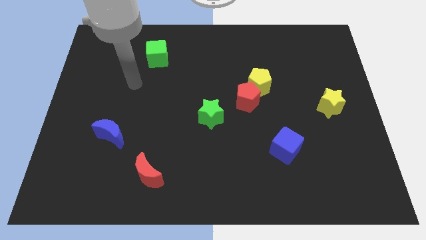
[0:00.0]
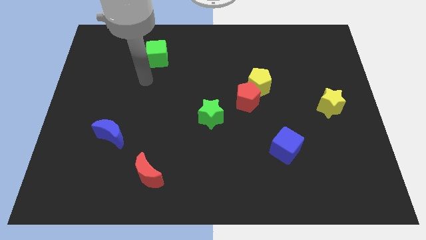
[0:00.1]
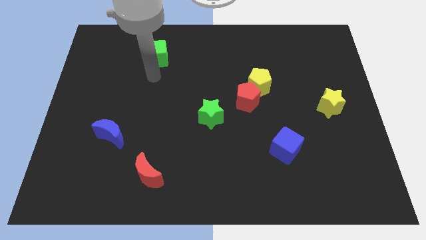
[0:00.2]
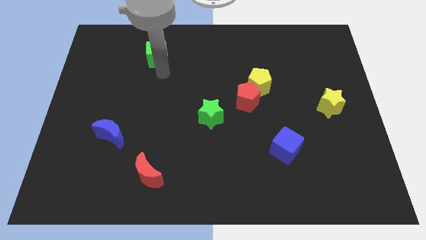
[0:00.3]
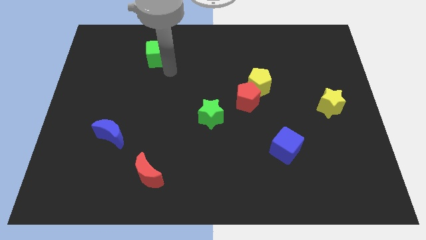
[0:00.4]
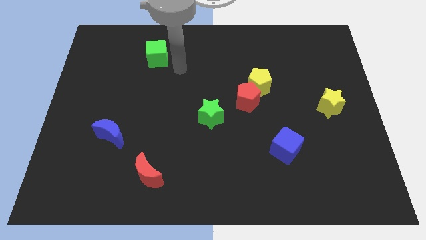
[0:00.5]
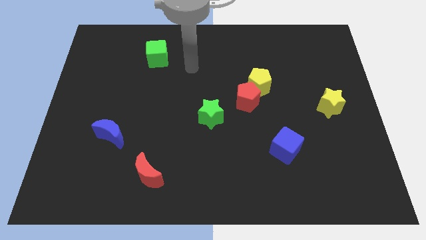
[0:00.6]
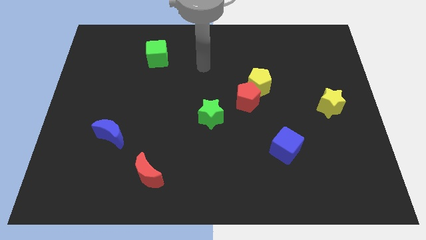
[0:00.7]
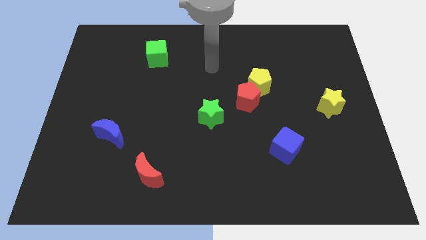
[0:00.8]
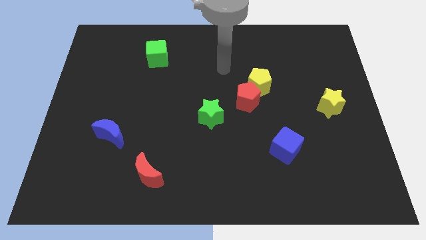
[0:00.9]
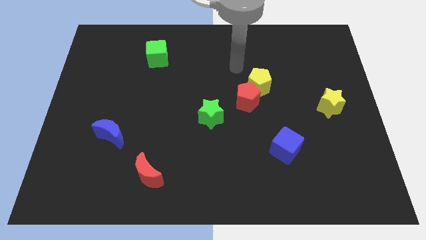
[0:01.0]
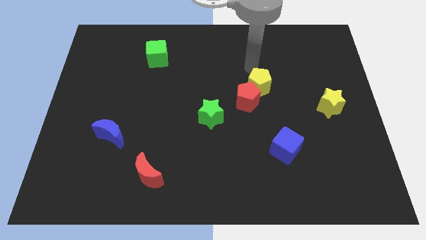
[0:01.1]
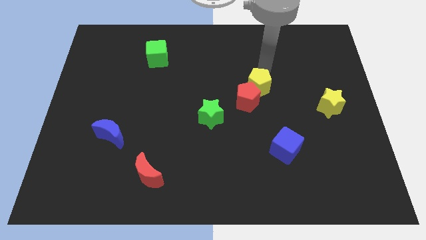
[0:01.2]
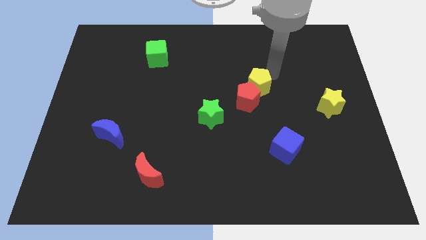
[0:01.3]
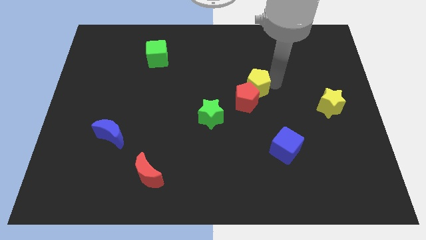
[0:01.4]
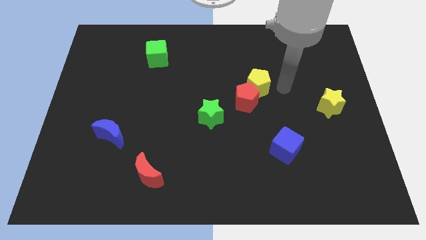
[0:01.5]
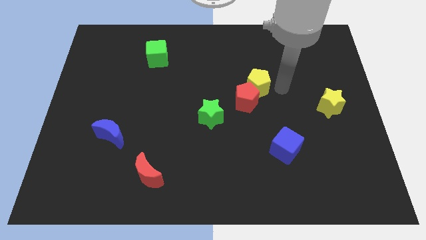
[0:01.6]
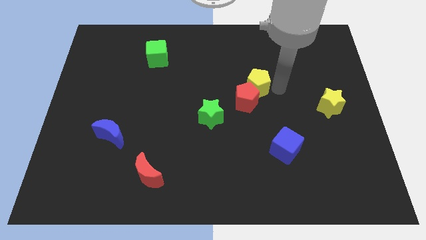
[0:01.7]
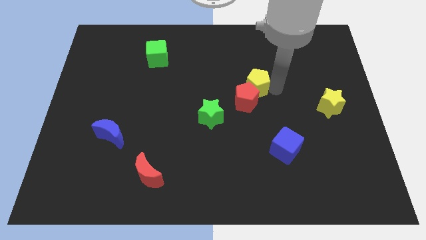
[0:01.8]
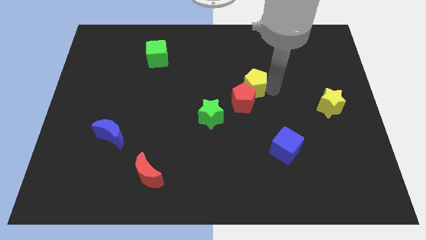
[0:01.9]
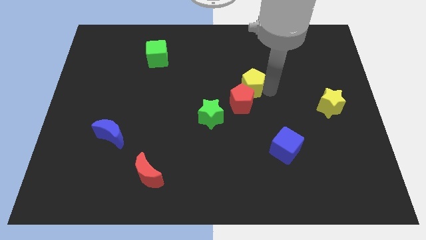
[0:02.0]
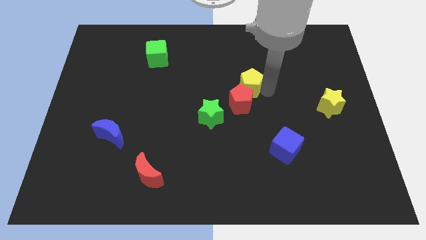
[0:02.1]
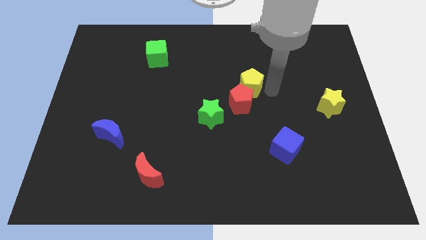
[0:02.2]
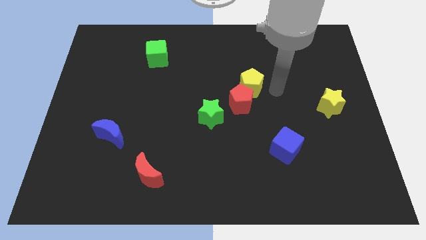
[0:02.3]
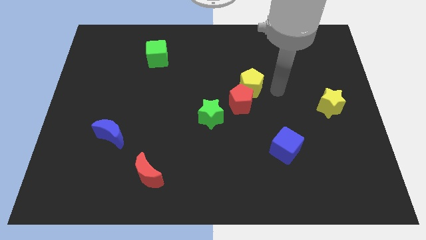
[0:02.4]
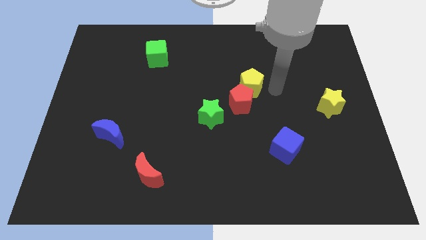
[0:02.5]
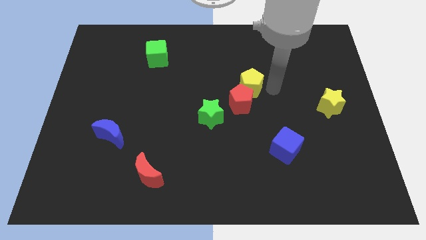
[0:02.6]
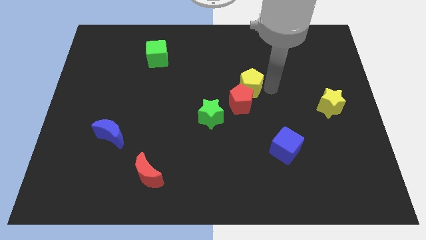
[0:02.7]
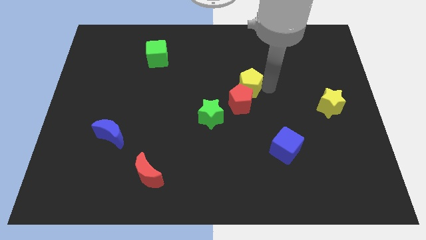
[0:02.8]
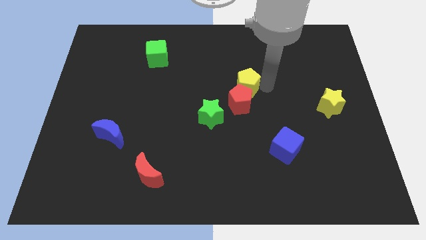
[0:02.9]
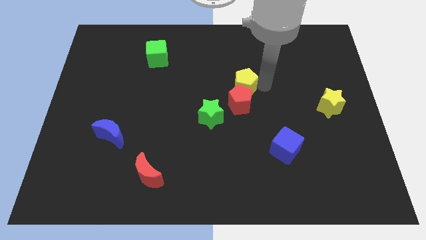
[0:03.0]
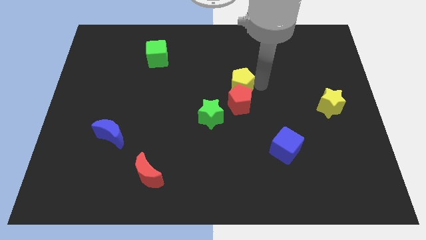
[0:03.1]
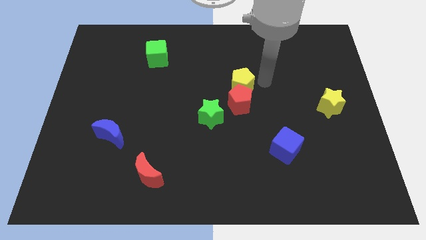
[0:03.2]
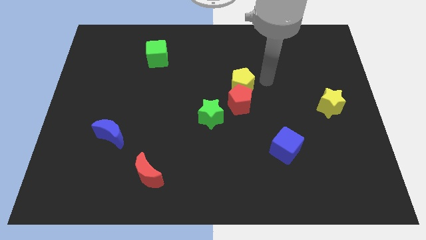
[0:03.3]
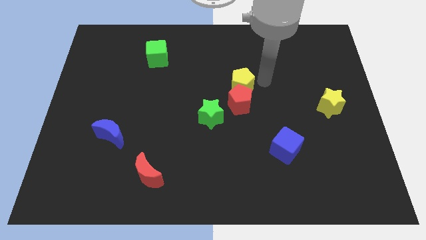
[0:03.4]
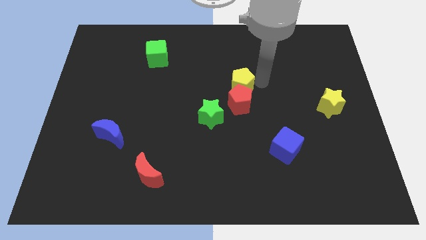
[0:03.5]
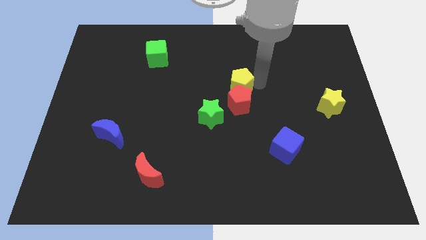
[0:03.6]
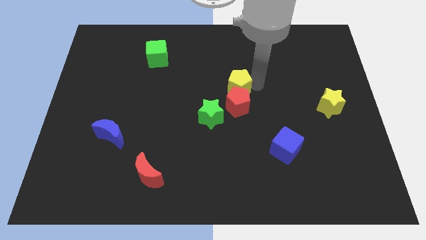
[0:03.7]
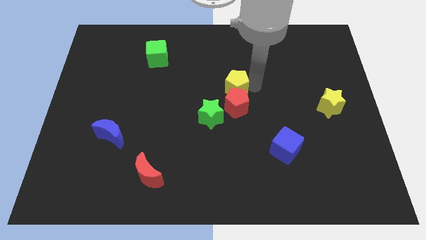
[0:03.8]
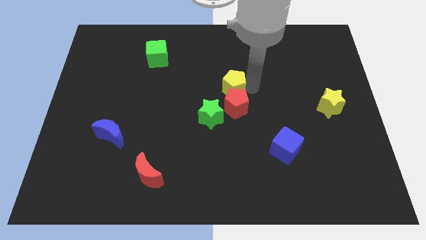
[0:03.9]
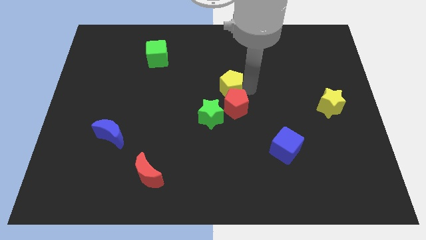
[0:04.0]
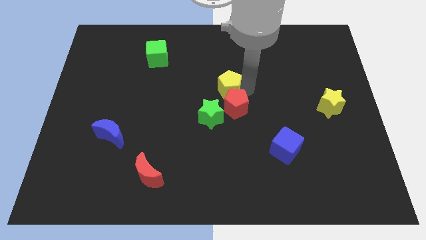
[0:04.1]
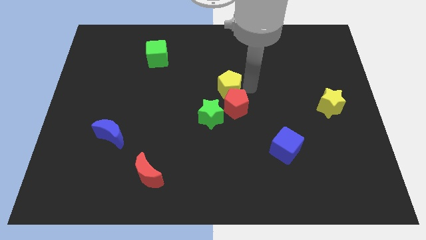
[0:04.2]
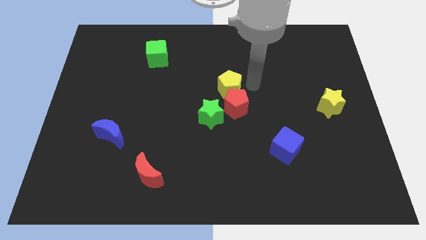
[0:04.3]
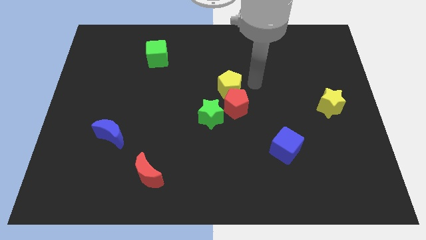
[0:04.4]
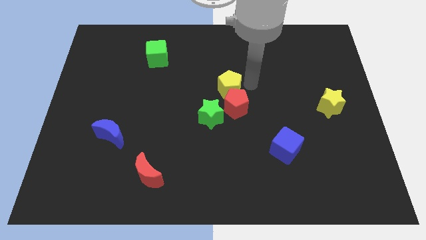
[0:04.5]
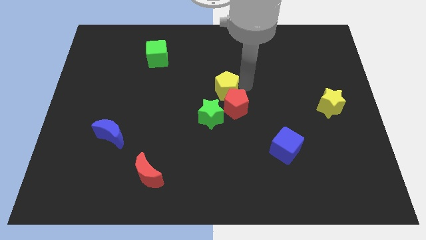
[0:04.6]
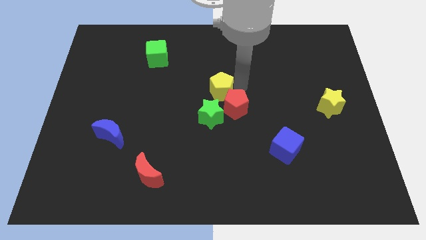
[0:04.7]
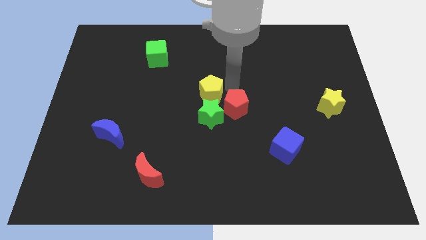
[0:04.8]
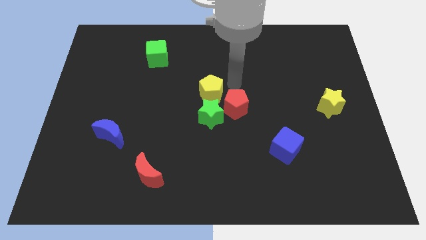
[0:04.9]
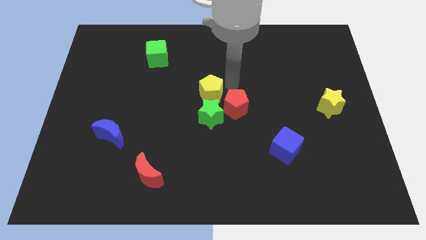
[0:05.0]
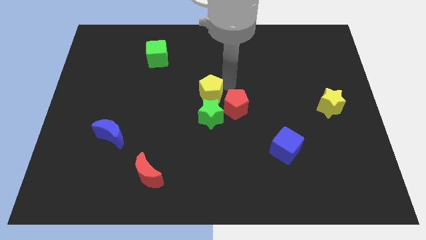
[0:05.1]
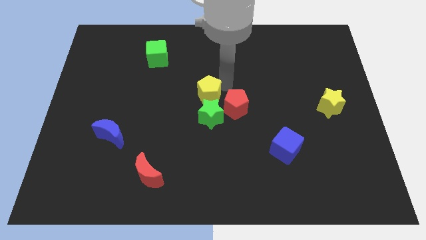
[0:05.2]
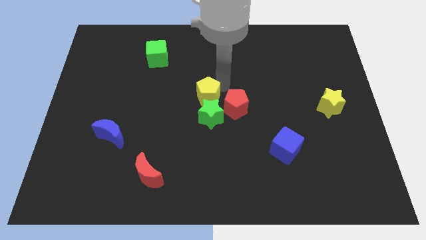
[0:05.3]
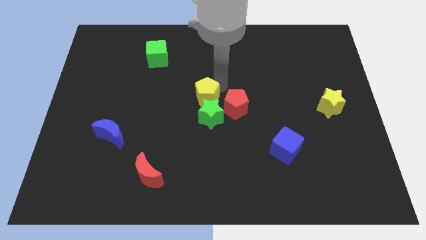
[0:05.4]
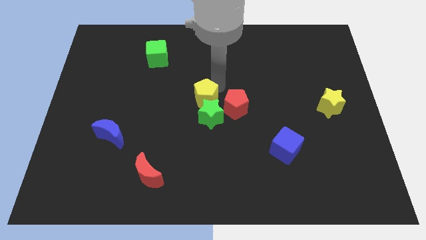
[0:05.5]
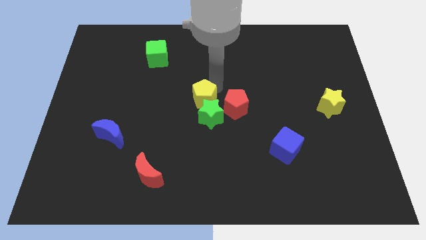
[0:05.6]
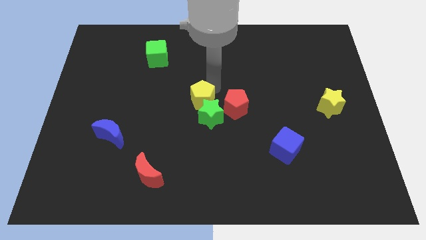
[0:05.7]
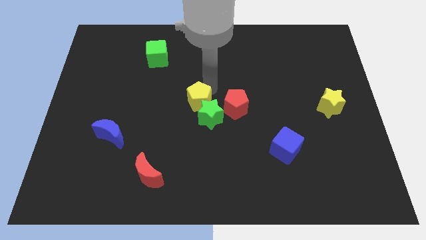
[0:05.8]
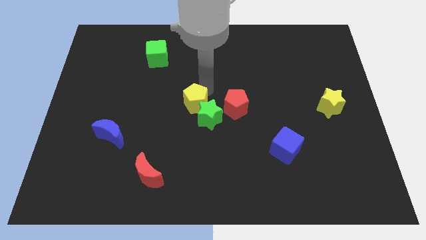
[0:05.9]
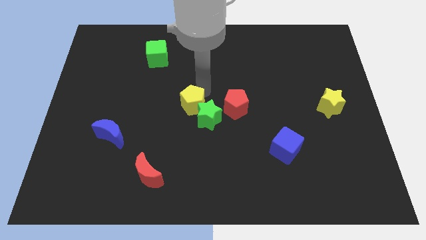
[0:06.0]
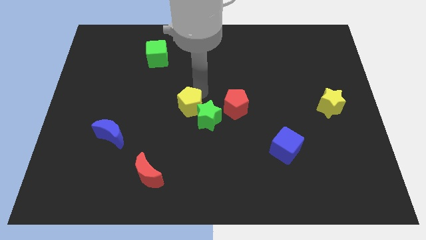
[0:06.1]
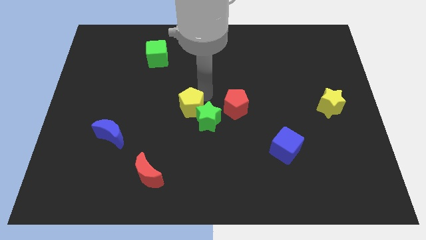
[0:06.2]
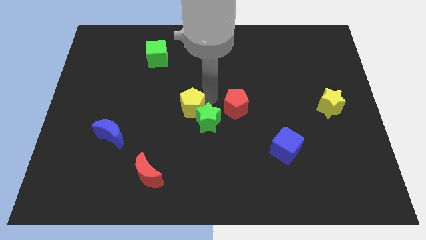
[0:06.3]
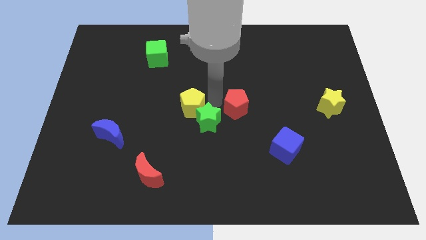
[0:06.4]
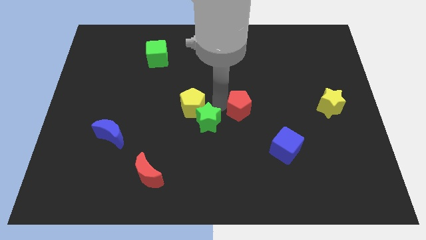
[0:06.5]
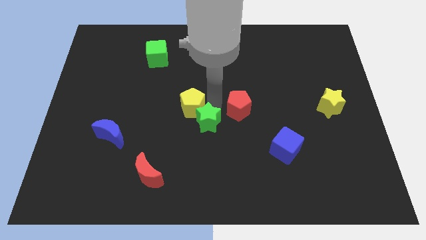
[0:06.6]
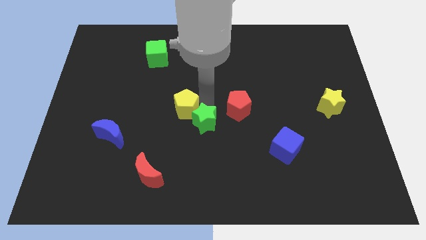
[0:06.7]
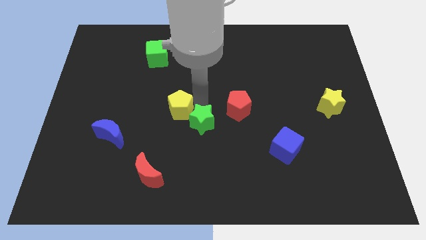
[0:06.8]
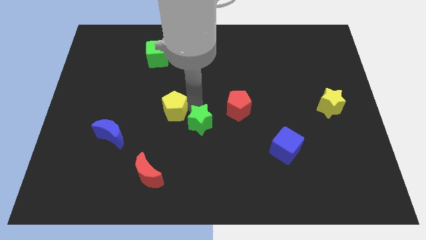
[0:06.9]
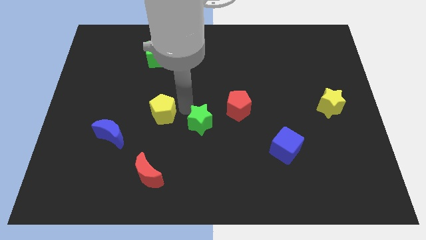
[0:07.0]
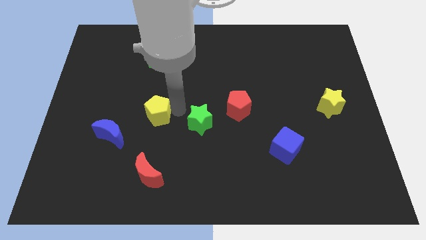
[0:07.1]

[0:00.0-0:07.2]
put the yellow pentagon to the top right side of the blue moon

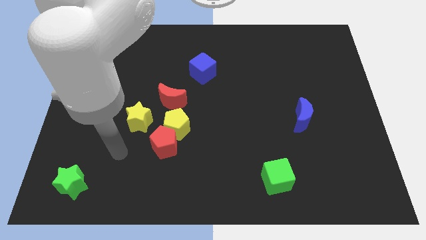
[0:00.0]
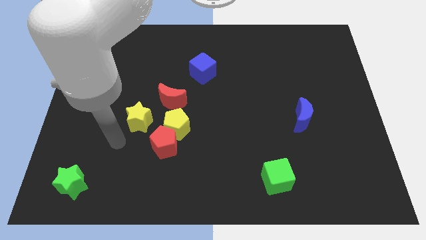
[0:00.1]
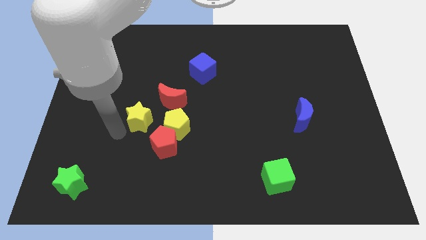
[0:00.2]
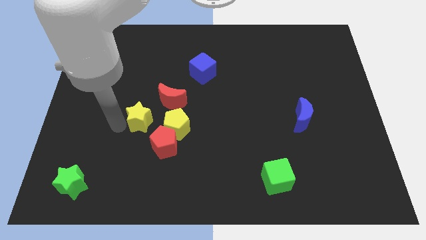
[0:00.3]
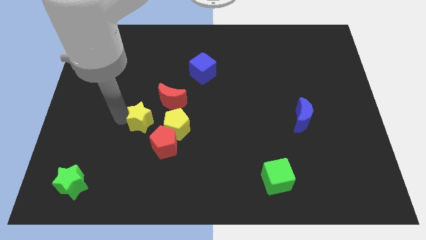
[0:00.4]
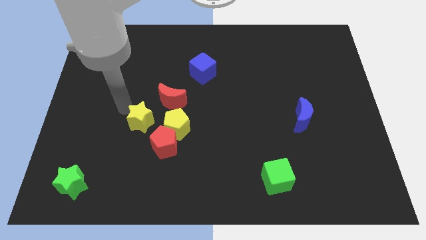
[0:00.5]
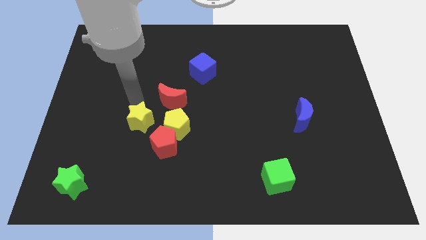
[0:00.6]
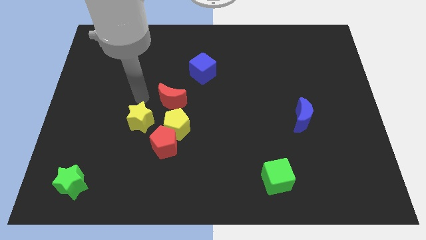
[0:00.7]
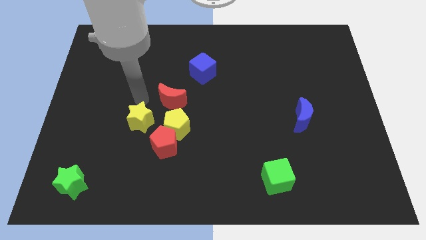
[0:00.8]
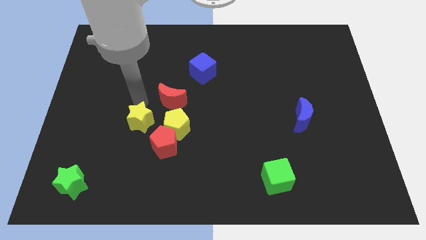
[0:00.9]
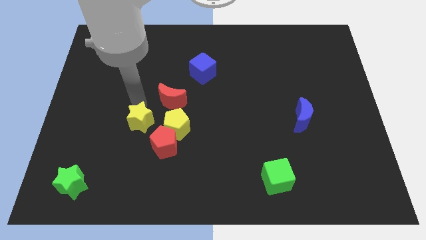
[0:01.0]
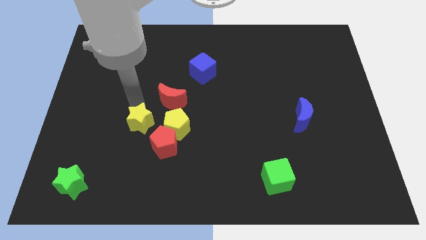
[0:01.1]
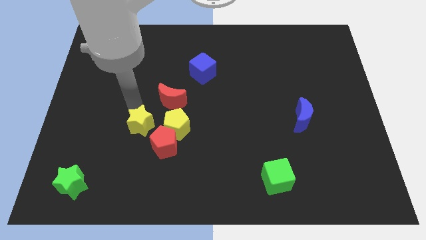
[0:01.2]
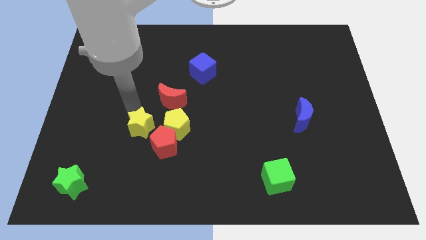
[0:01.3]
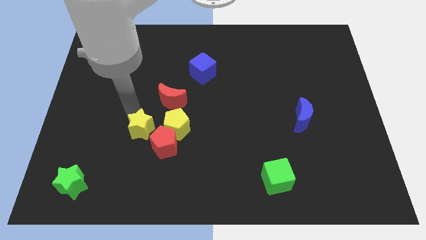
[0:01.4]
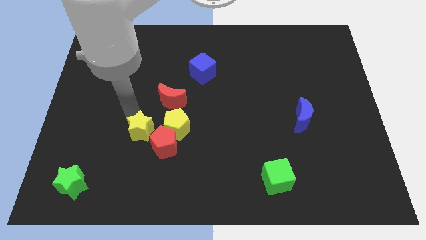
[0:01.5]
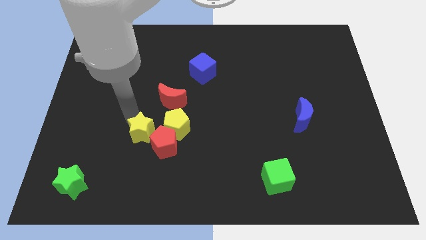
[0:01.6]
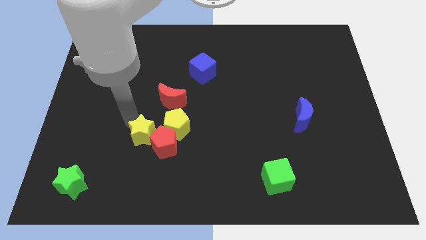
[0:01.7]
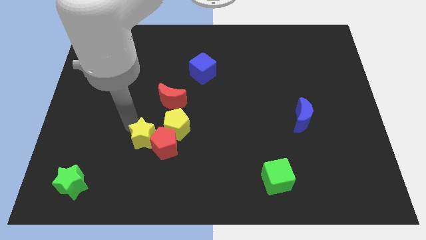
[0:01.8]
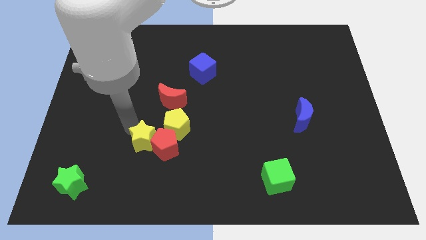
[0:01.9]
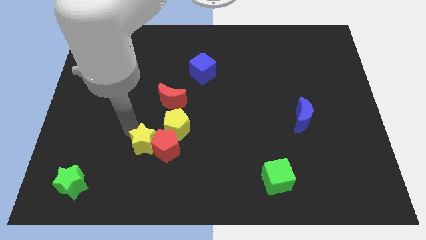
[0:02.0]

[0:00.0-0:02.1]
move the yellow star diagonally down and to the left of the red pentagon
